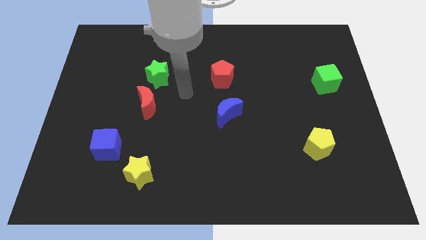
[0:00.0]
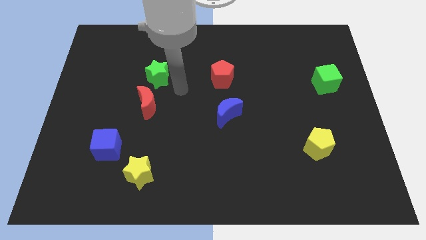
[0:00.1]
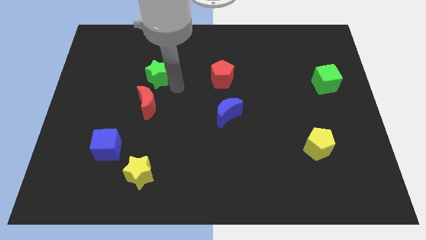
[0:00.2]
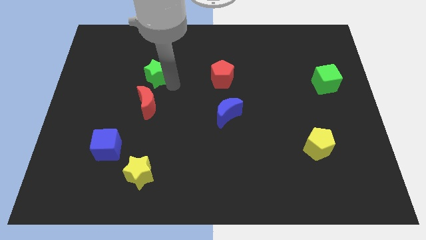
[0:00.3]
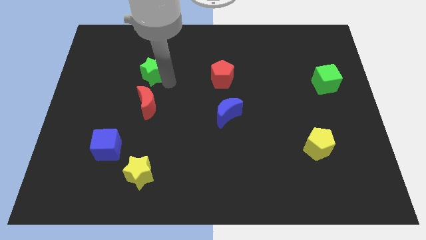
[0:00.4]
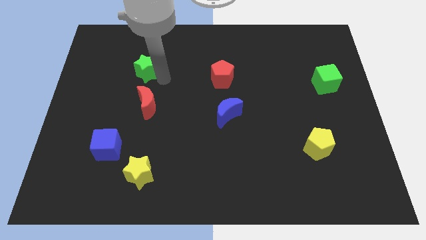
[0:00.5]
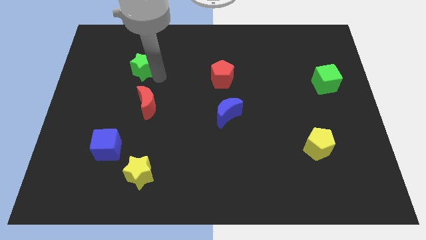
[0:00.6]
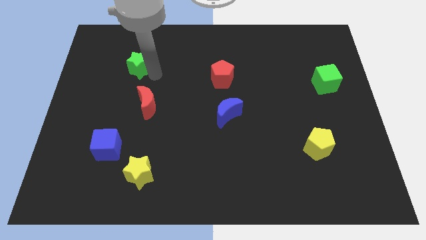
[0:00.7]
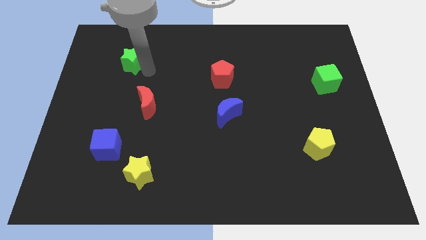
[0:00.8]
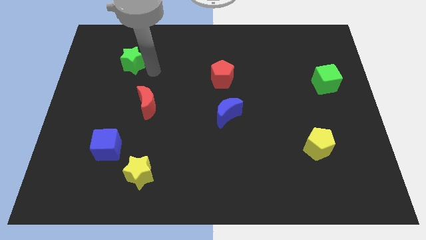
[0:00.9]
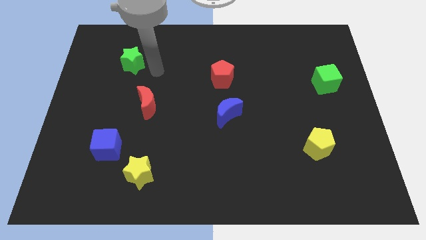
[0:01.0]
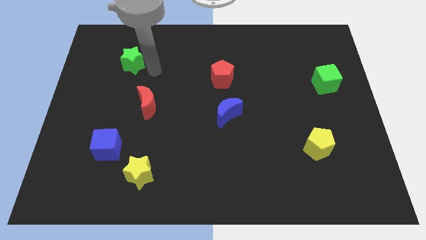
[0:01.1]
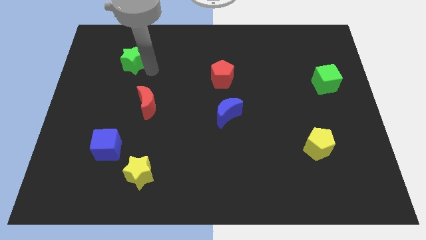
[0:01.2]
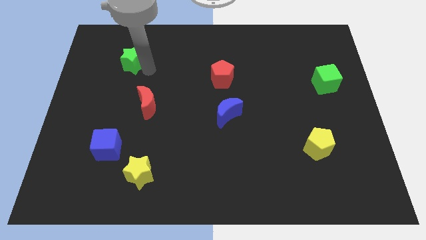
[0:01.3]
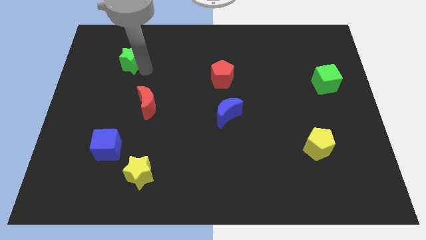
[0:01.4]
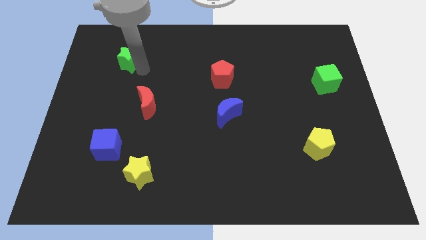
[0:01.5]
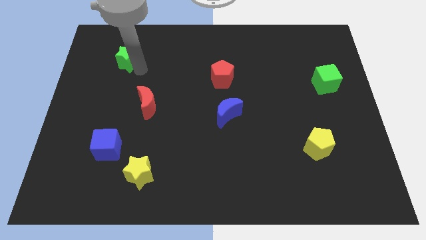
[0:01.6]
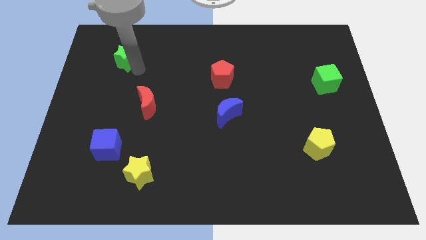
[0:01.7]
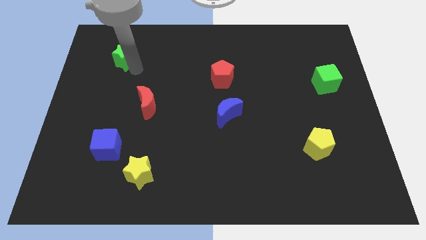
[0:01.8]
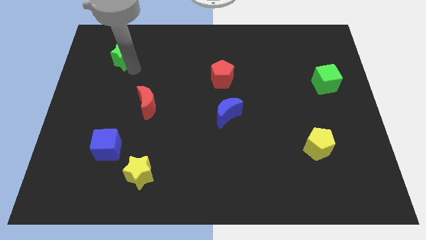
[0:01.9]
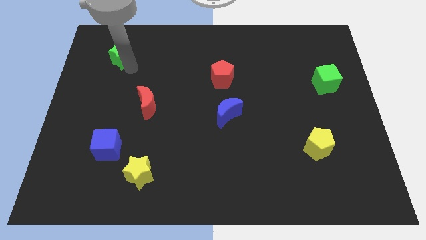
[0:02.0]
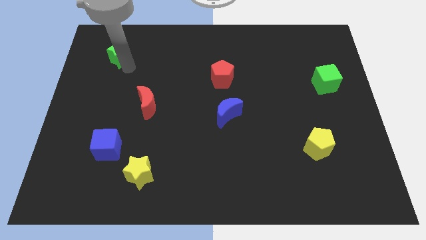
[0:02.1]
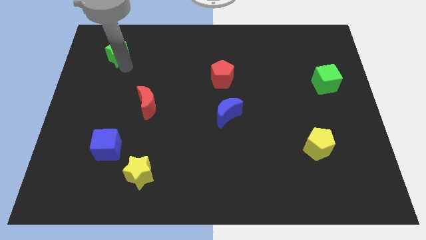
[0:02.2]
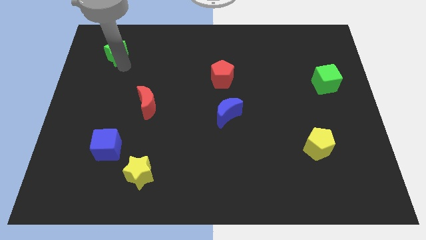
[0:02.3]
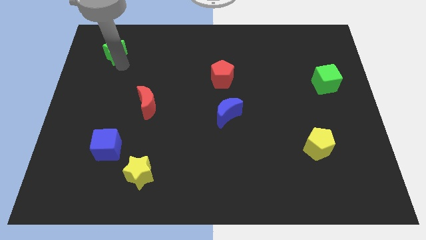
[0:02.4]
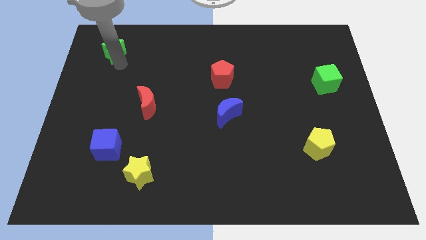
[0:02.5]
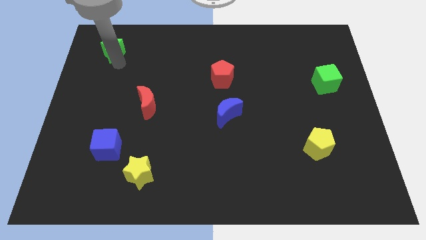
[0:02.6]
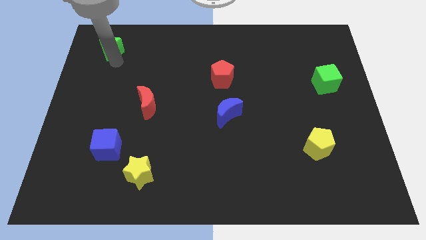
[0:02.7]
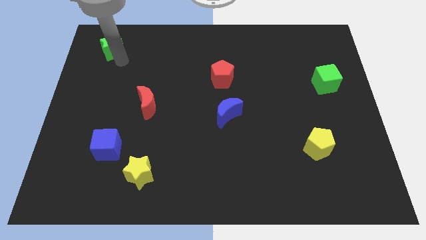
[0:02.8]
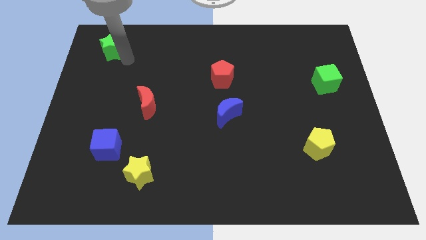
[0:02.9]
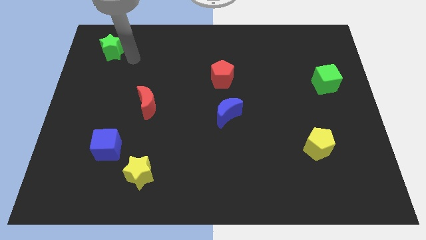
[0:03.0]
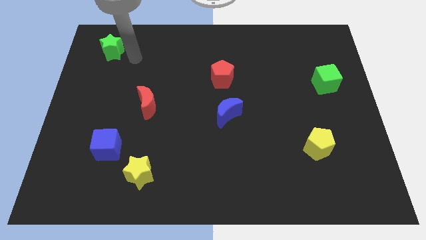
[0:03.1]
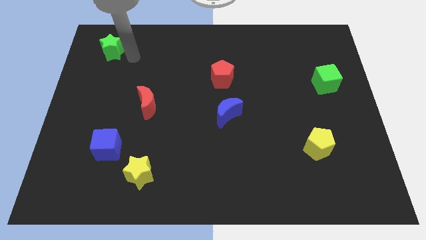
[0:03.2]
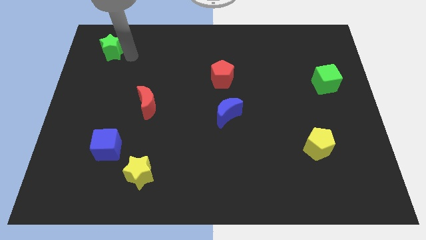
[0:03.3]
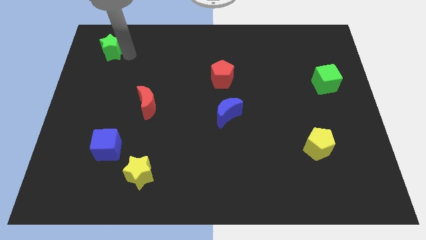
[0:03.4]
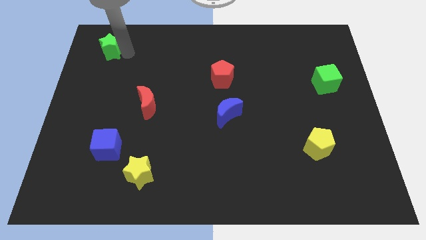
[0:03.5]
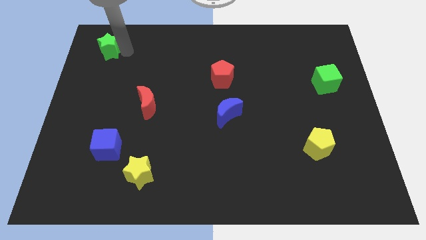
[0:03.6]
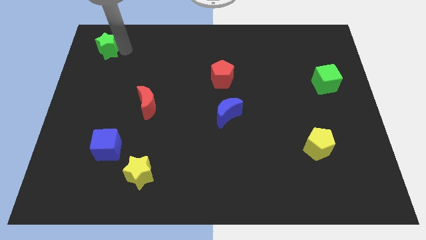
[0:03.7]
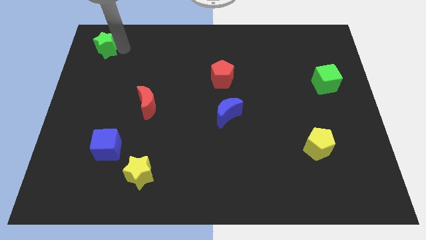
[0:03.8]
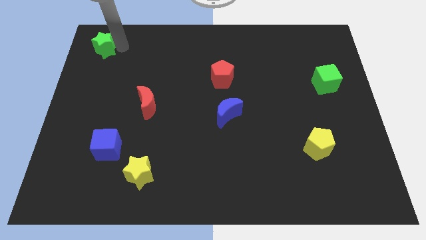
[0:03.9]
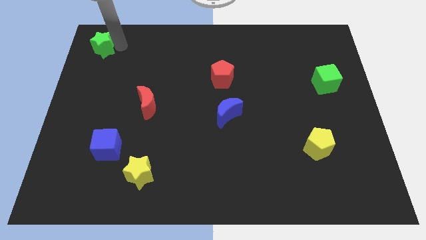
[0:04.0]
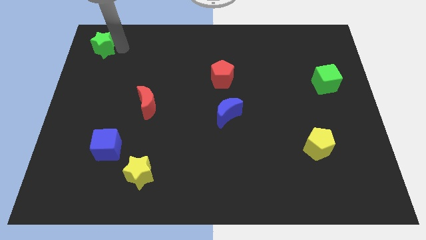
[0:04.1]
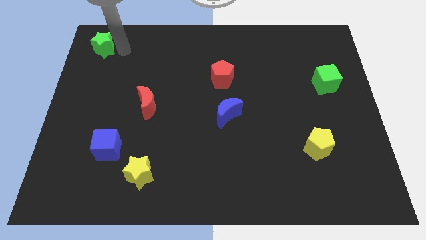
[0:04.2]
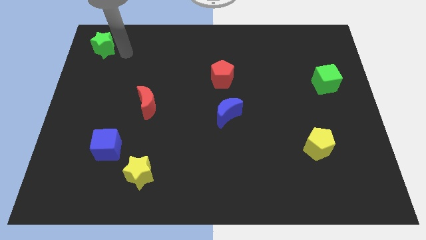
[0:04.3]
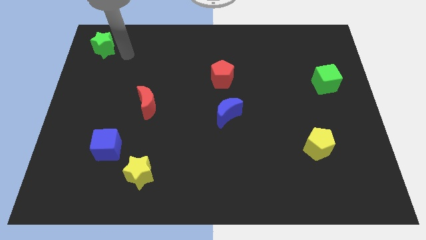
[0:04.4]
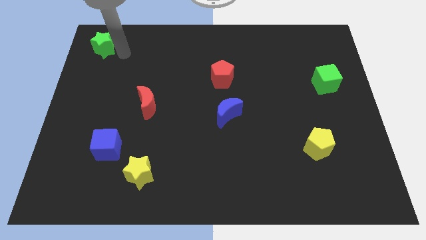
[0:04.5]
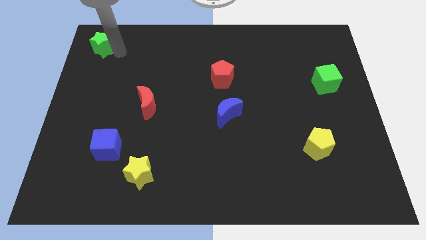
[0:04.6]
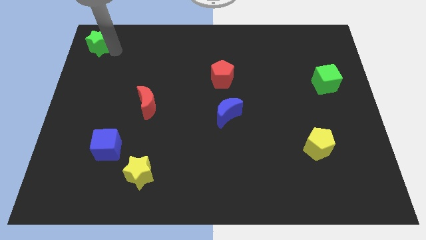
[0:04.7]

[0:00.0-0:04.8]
push the green star to the top left

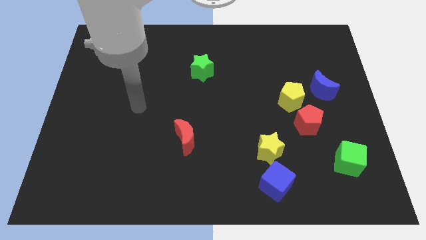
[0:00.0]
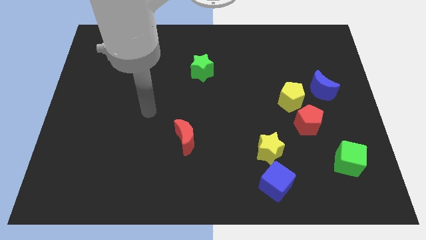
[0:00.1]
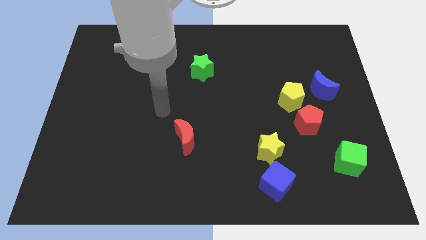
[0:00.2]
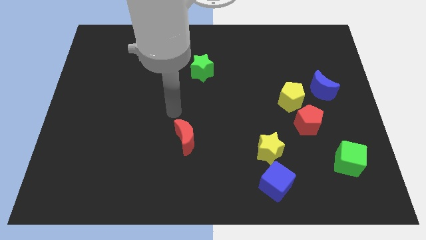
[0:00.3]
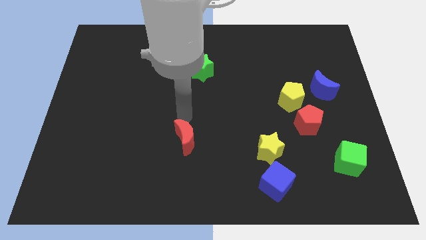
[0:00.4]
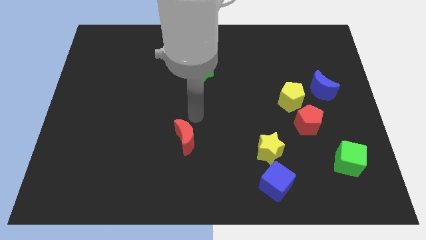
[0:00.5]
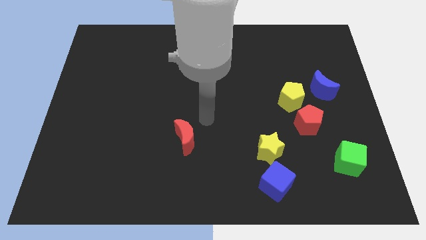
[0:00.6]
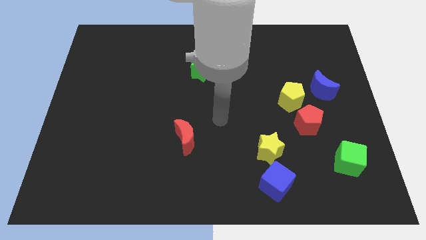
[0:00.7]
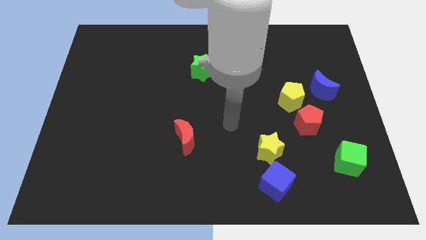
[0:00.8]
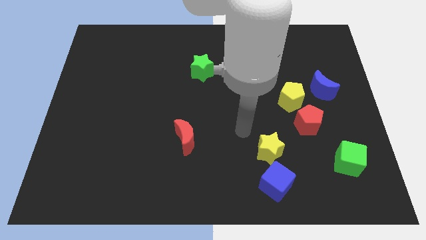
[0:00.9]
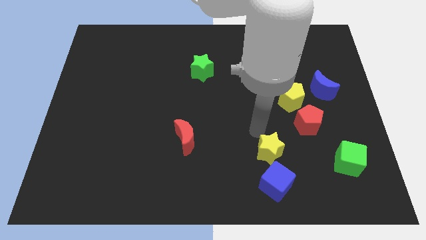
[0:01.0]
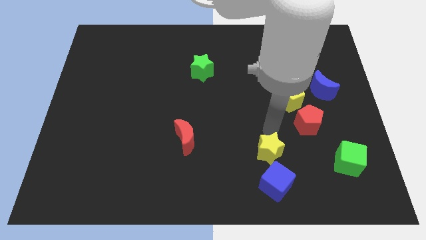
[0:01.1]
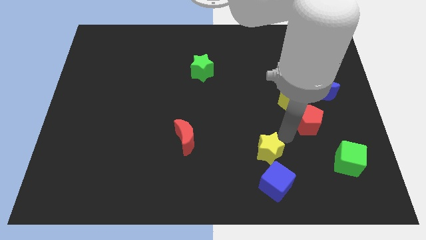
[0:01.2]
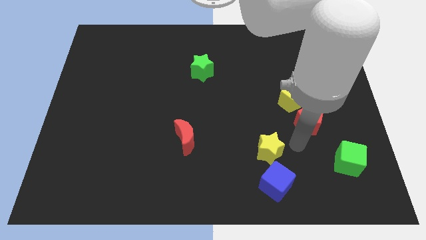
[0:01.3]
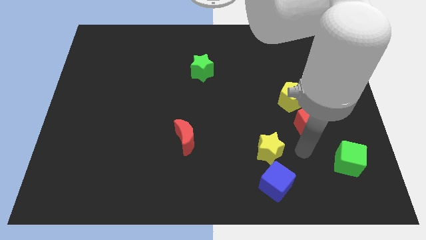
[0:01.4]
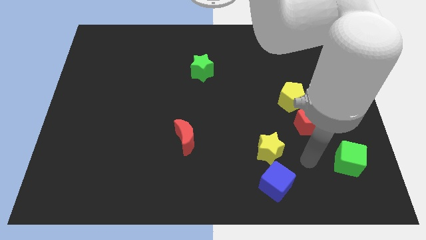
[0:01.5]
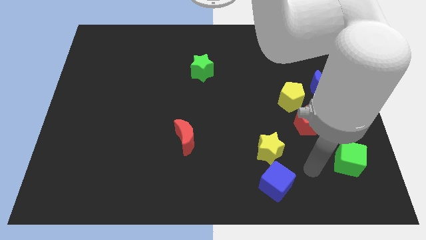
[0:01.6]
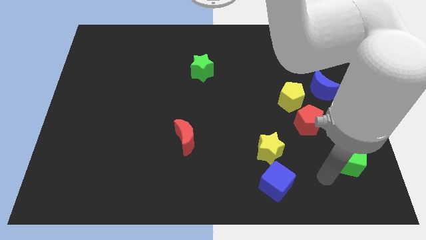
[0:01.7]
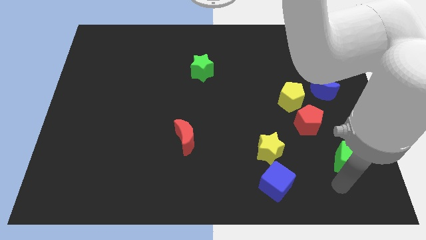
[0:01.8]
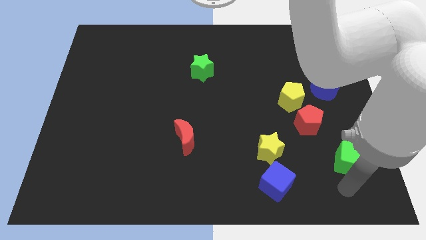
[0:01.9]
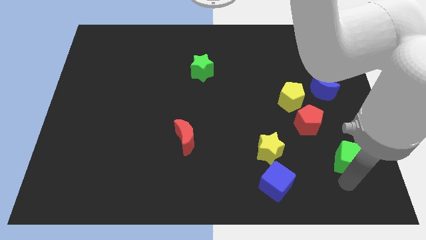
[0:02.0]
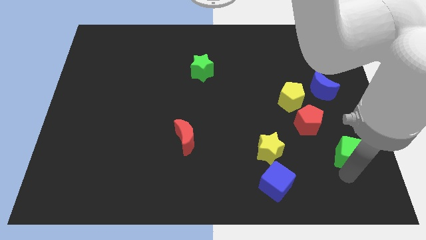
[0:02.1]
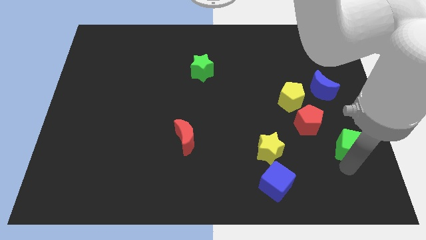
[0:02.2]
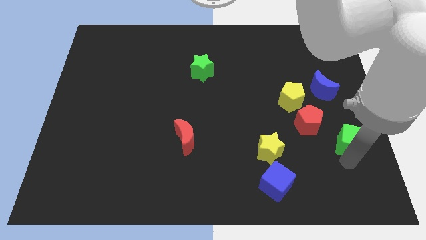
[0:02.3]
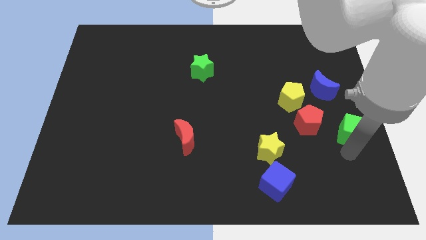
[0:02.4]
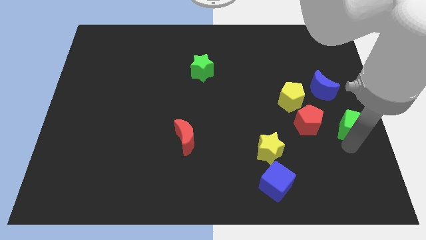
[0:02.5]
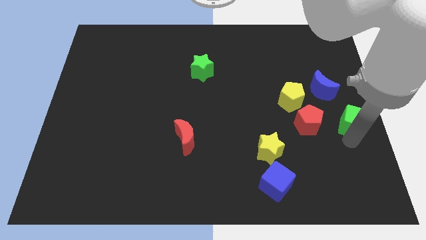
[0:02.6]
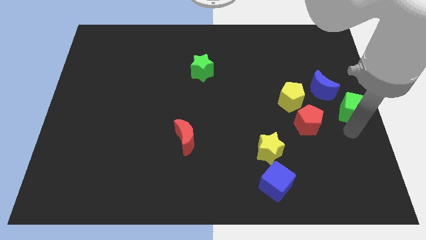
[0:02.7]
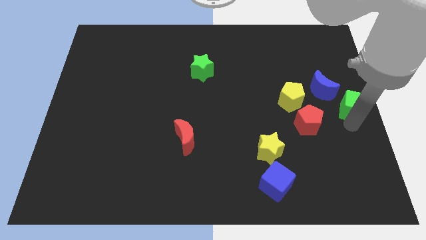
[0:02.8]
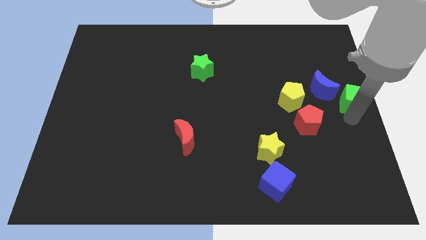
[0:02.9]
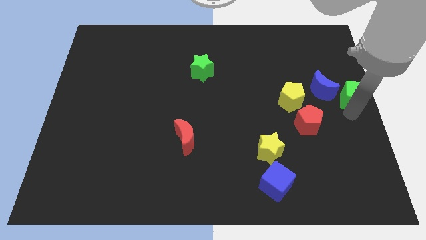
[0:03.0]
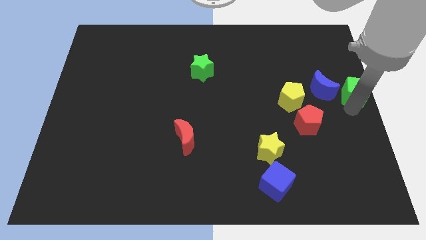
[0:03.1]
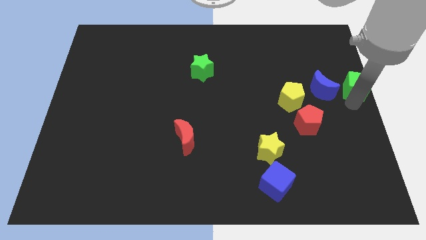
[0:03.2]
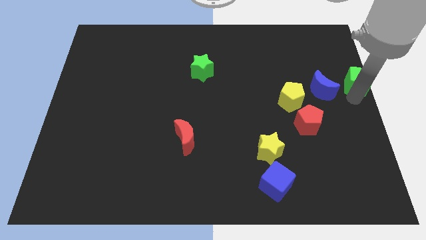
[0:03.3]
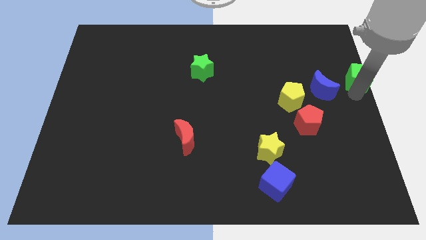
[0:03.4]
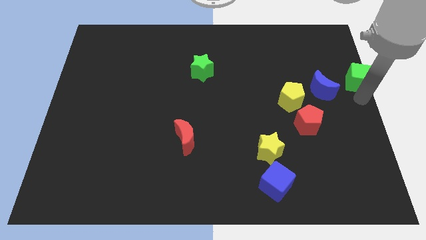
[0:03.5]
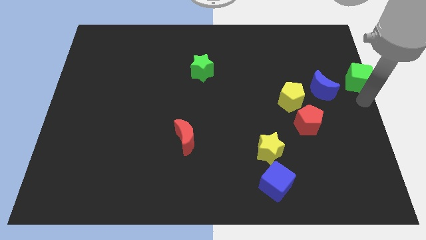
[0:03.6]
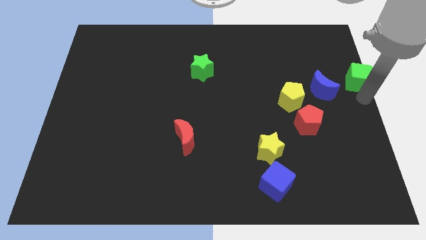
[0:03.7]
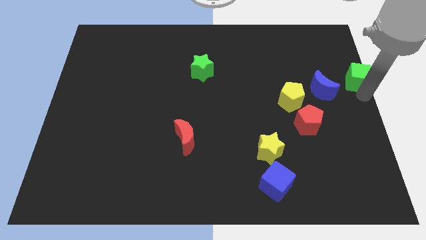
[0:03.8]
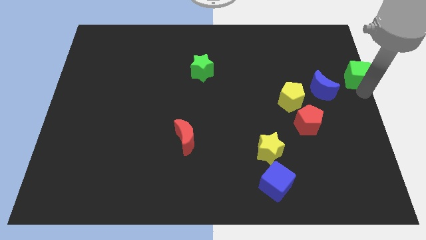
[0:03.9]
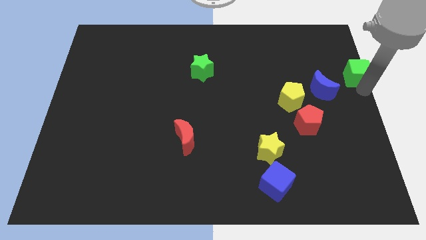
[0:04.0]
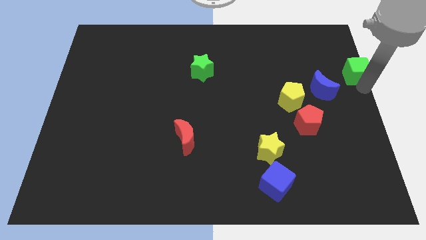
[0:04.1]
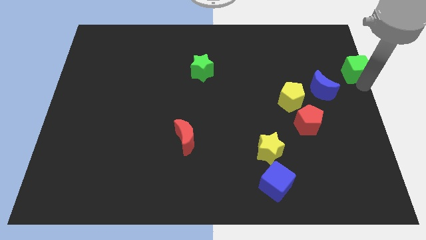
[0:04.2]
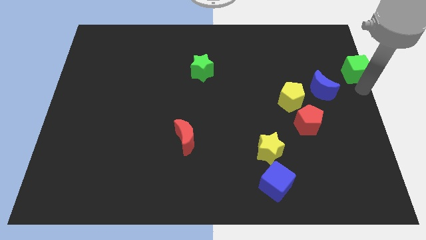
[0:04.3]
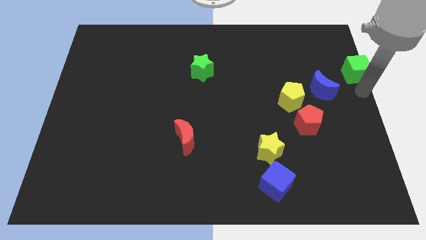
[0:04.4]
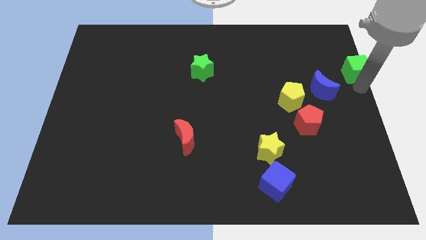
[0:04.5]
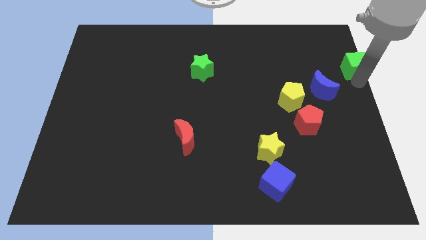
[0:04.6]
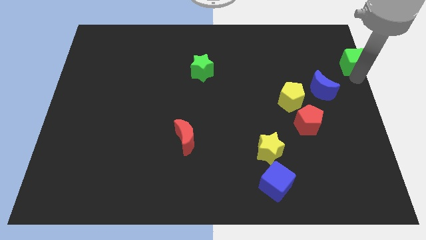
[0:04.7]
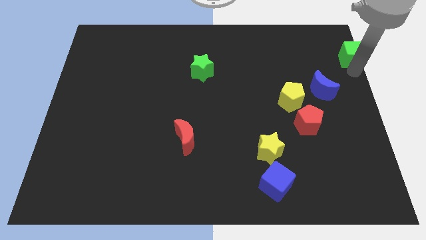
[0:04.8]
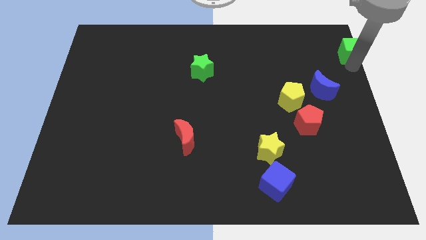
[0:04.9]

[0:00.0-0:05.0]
move the green cube to the top right of the board
